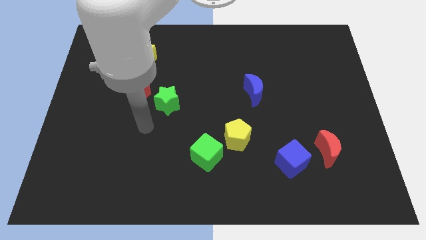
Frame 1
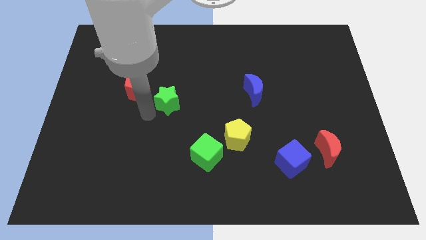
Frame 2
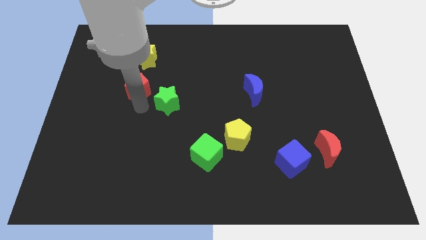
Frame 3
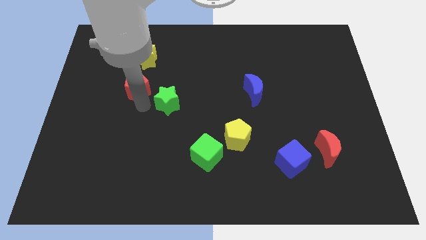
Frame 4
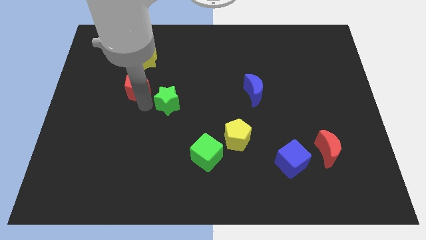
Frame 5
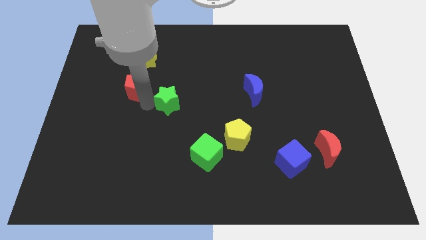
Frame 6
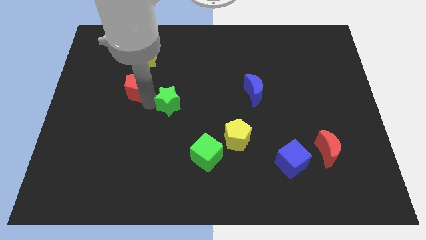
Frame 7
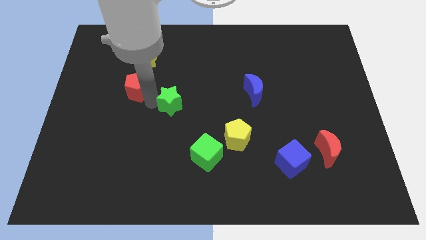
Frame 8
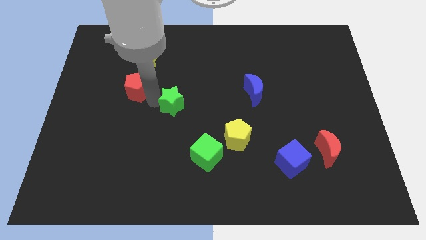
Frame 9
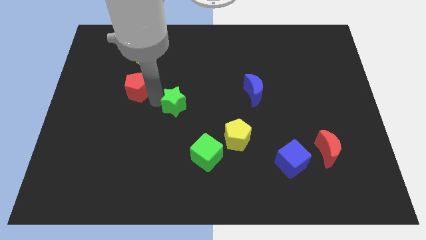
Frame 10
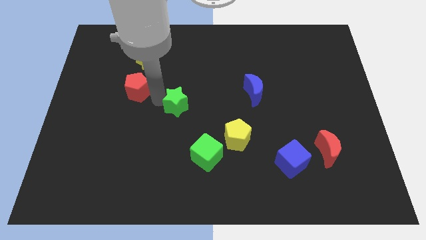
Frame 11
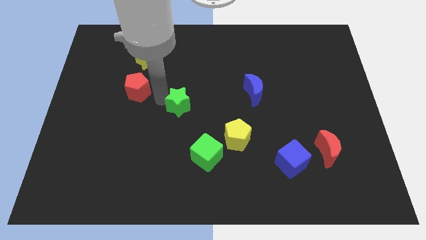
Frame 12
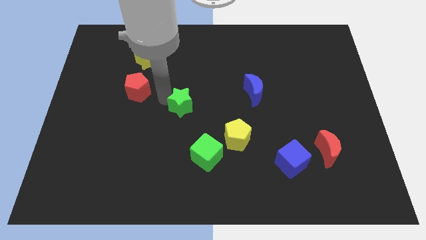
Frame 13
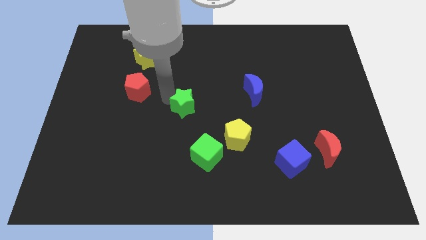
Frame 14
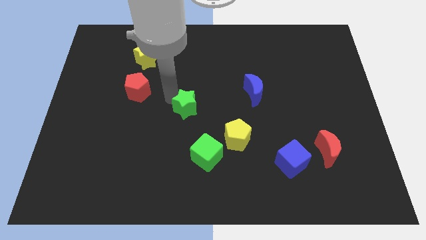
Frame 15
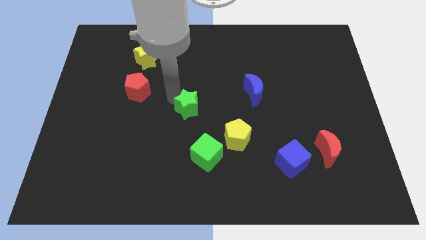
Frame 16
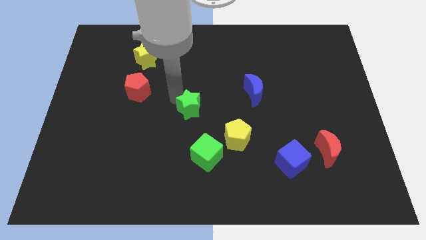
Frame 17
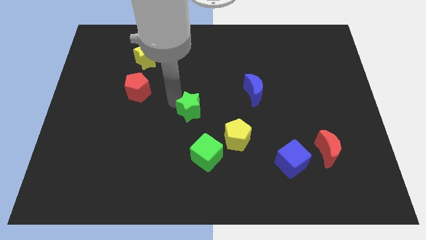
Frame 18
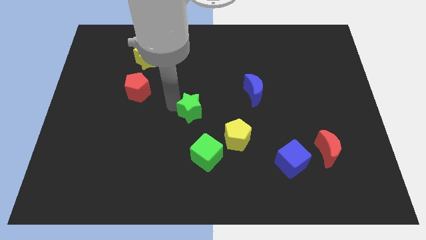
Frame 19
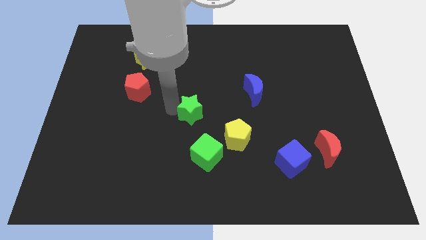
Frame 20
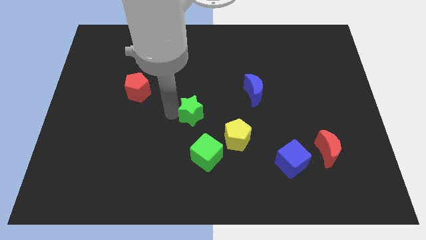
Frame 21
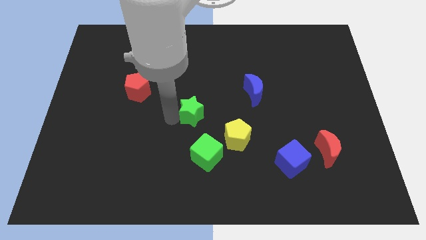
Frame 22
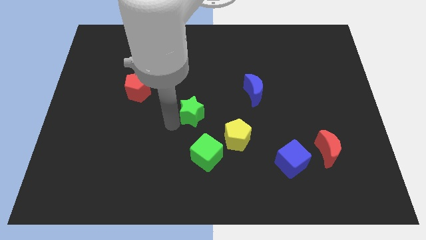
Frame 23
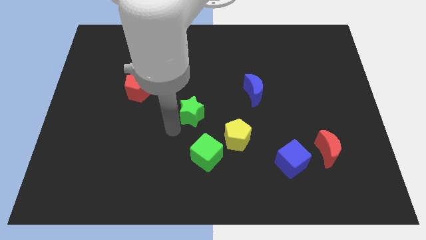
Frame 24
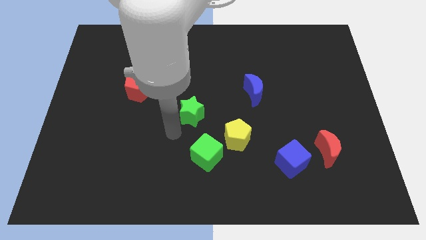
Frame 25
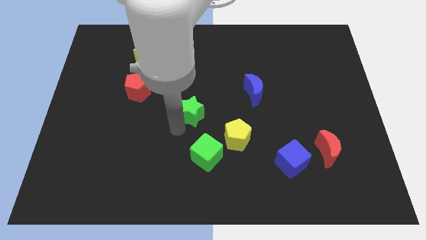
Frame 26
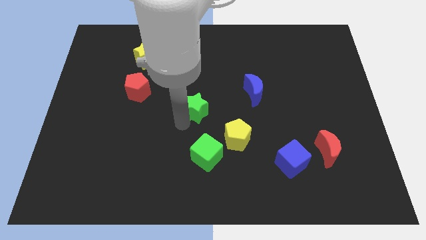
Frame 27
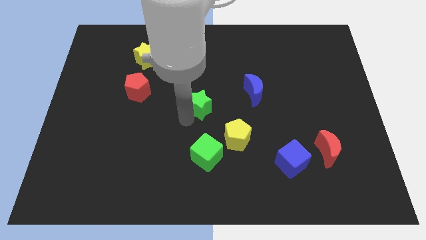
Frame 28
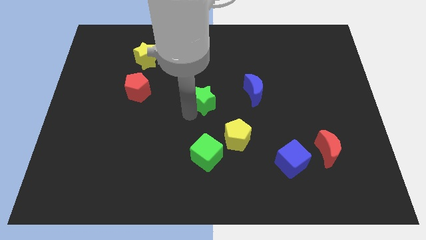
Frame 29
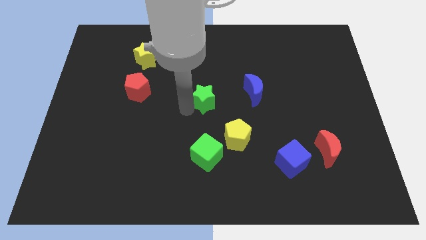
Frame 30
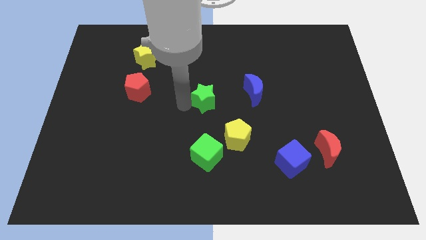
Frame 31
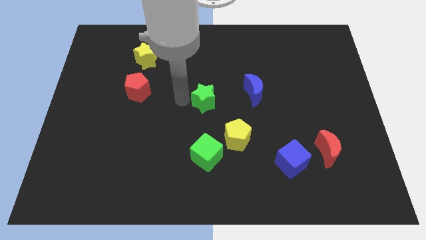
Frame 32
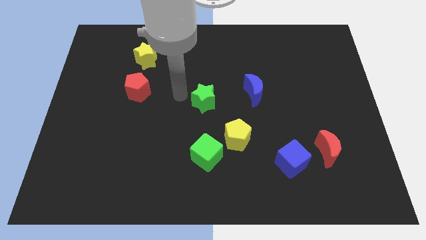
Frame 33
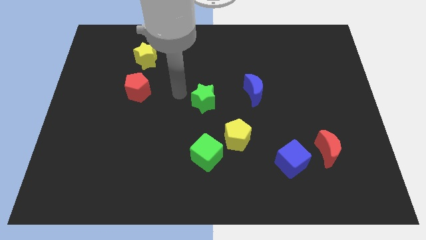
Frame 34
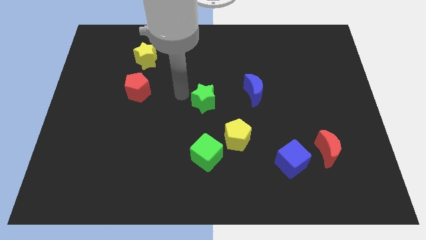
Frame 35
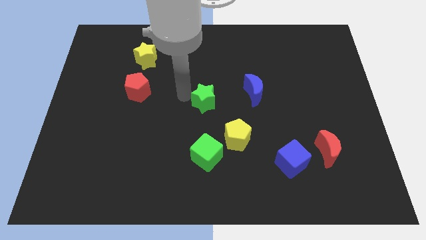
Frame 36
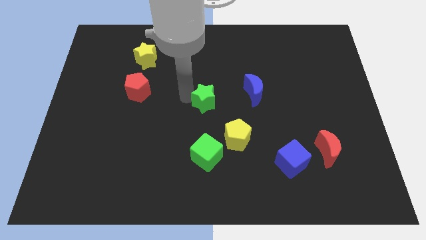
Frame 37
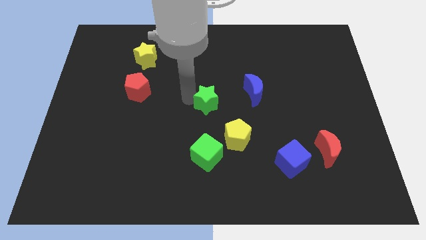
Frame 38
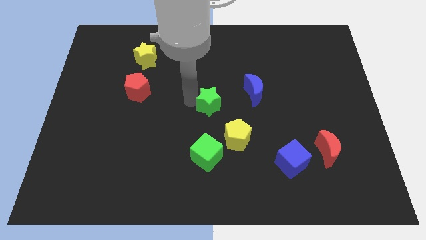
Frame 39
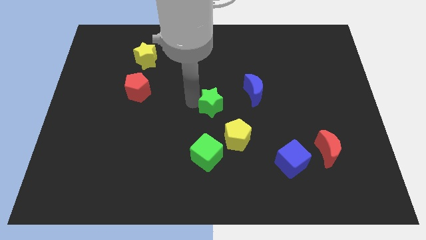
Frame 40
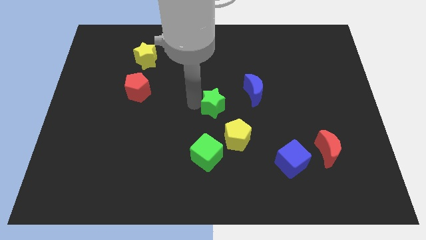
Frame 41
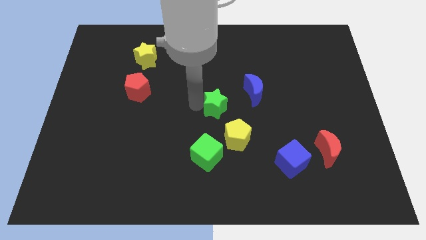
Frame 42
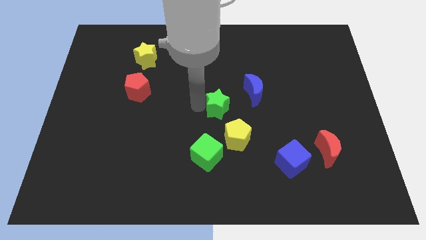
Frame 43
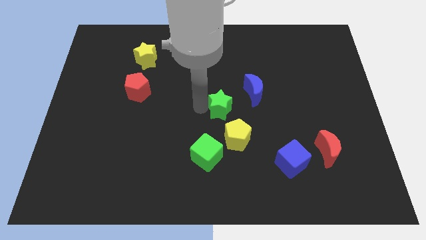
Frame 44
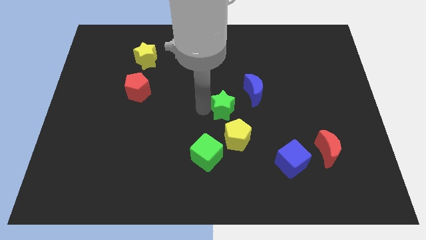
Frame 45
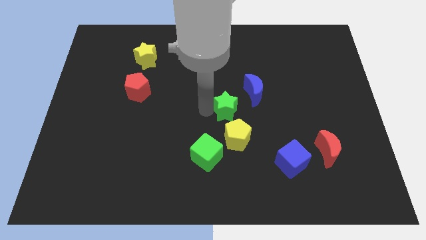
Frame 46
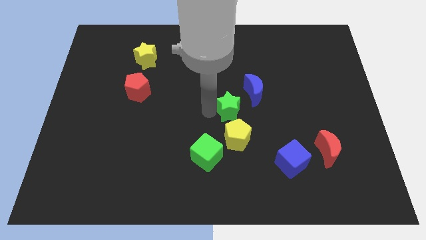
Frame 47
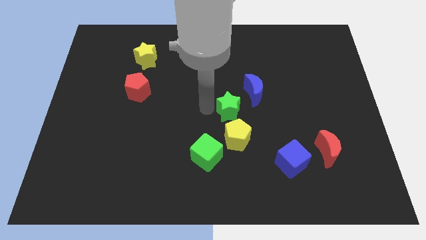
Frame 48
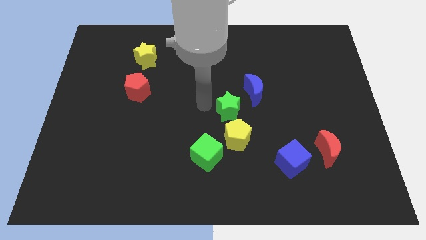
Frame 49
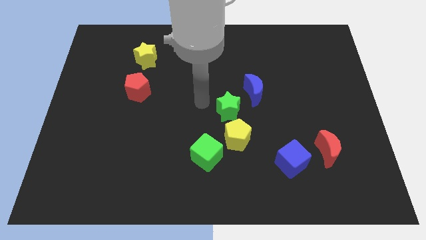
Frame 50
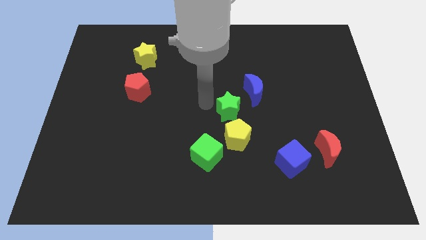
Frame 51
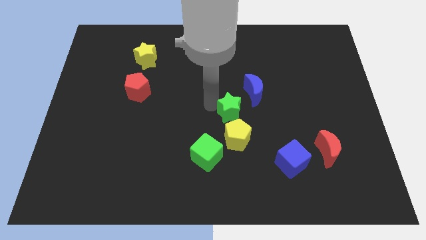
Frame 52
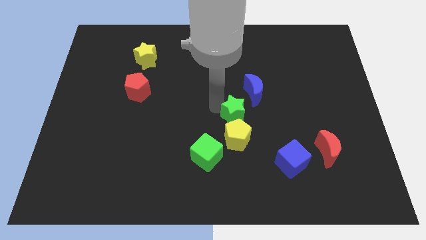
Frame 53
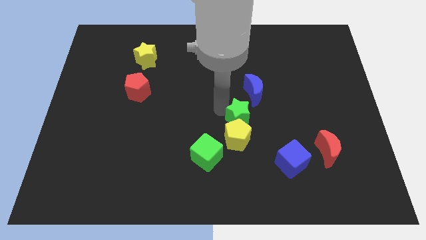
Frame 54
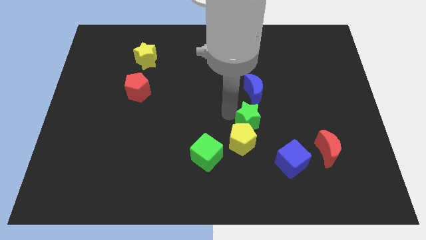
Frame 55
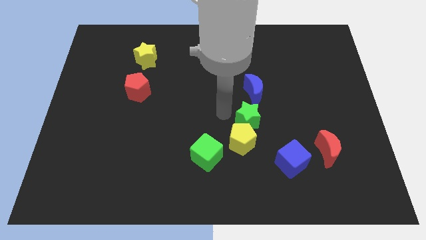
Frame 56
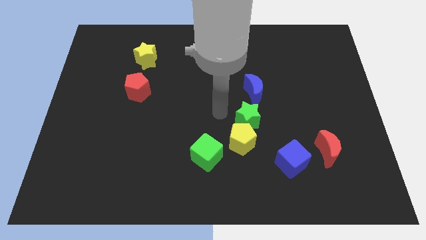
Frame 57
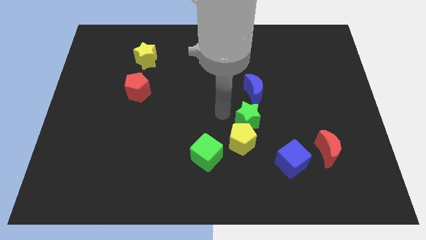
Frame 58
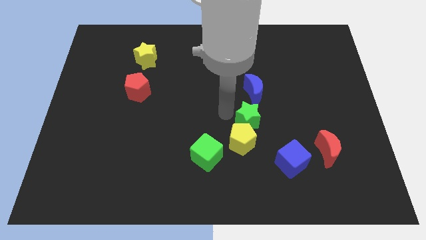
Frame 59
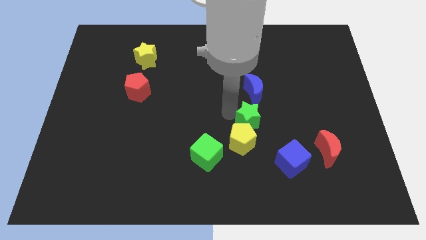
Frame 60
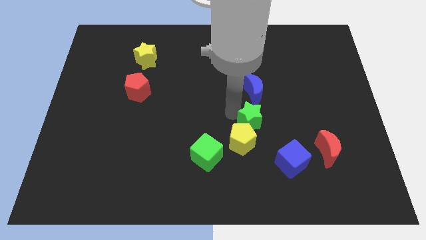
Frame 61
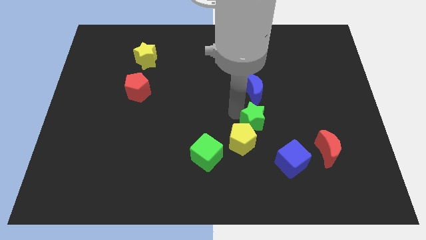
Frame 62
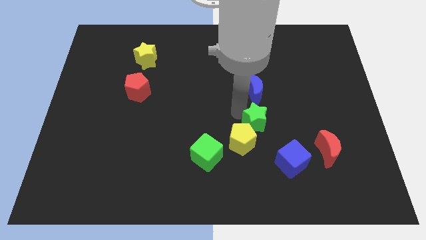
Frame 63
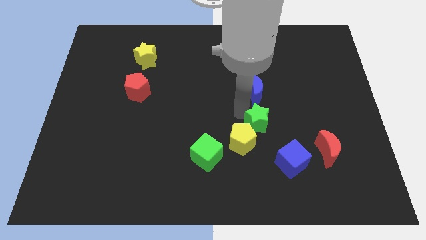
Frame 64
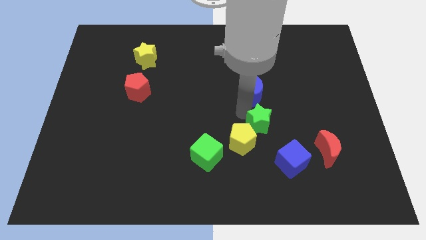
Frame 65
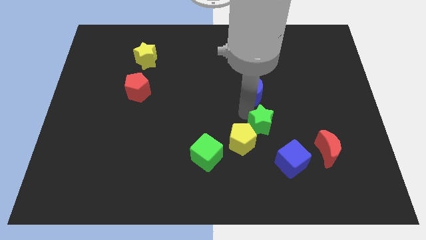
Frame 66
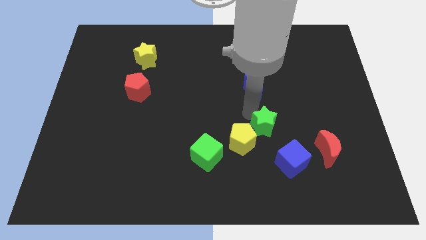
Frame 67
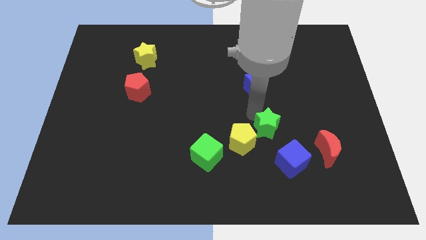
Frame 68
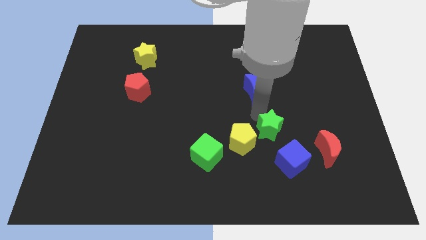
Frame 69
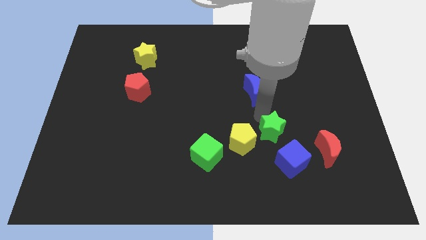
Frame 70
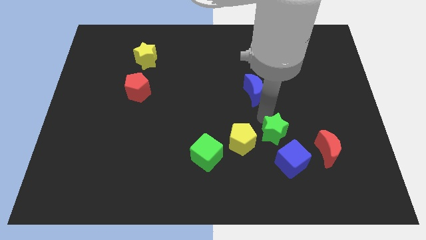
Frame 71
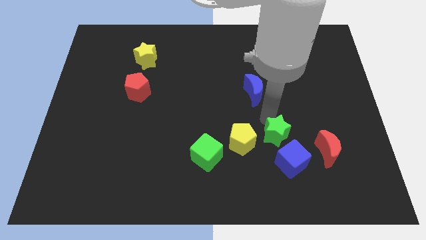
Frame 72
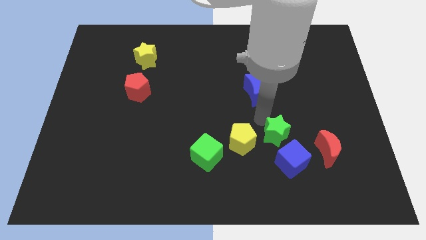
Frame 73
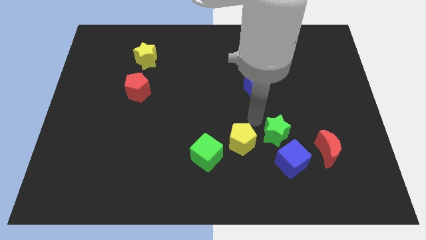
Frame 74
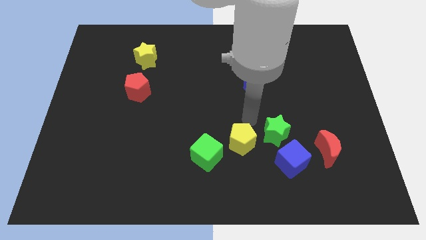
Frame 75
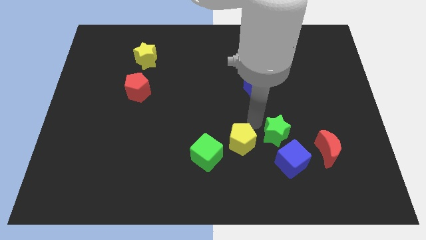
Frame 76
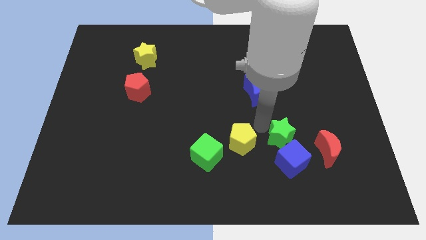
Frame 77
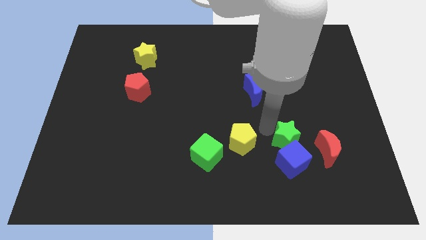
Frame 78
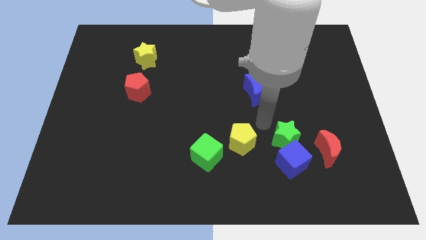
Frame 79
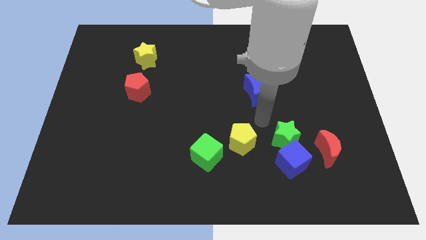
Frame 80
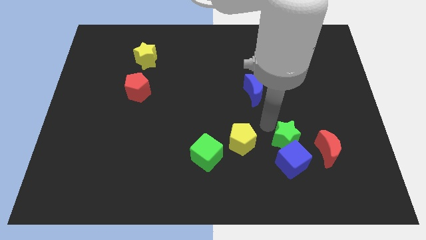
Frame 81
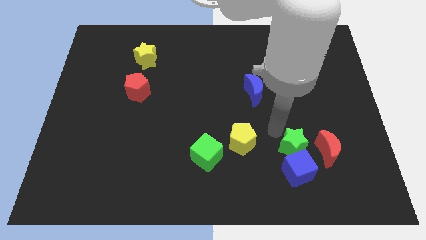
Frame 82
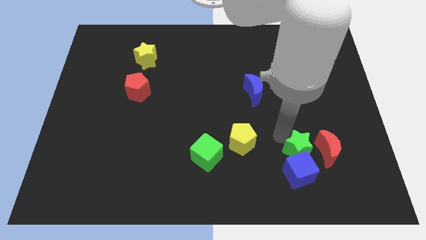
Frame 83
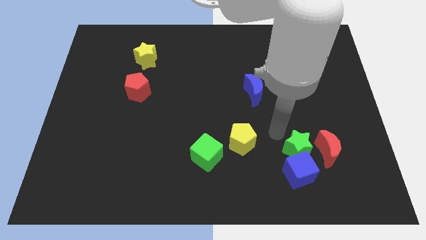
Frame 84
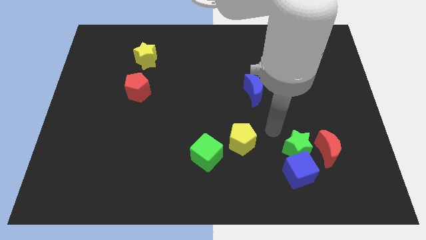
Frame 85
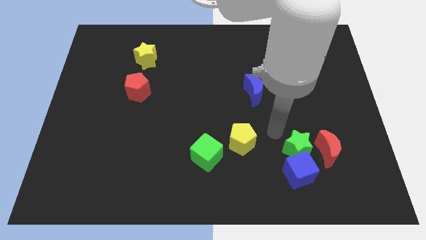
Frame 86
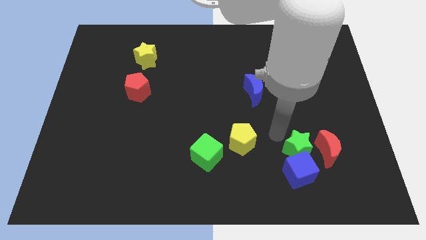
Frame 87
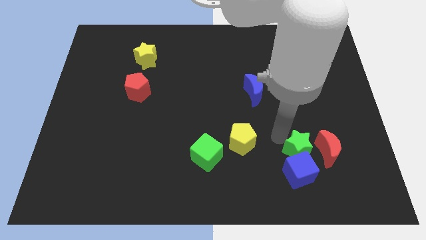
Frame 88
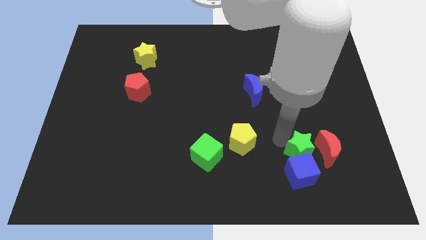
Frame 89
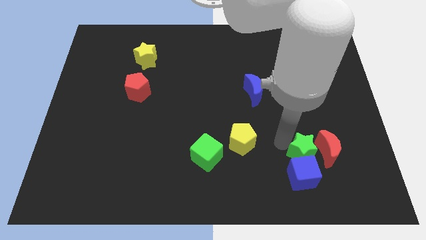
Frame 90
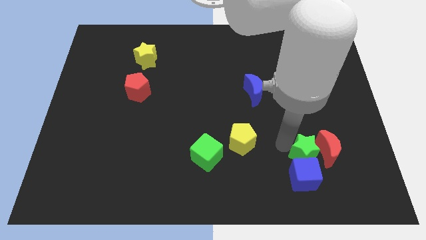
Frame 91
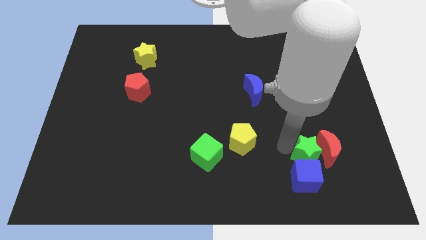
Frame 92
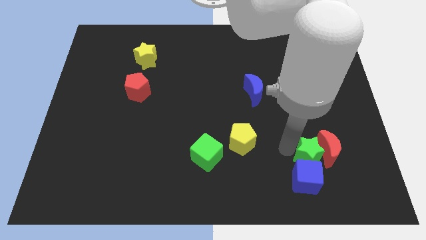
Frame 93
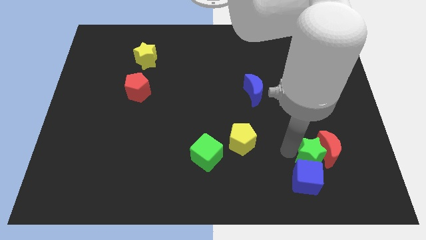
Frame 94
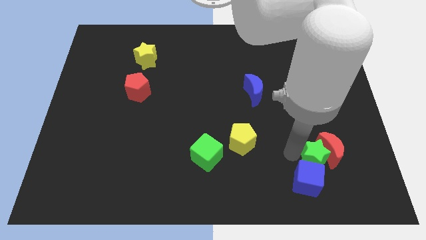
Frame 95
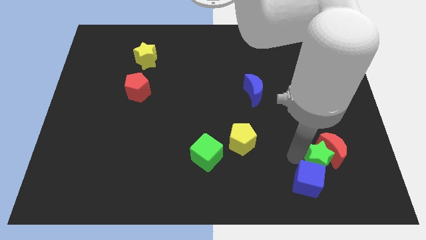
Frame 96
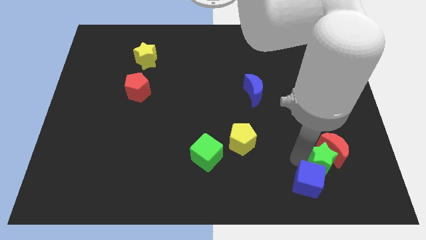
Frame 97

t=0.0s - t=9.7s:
put the green star just right of the blue cube
